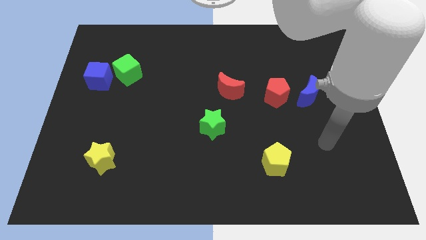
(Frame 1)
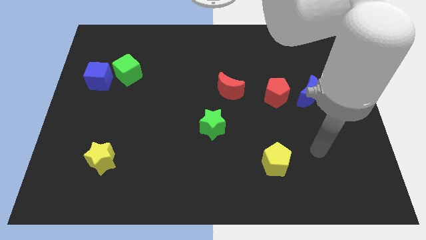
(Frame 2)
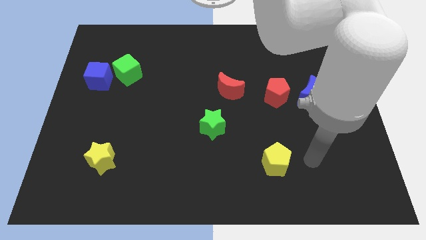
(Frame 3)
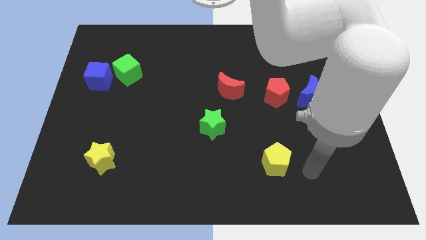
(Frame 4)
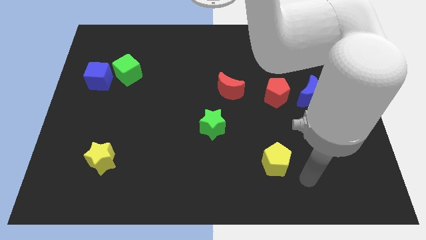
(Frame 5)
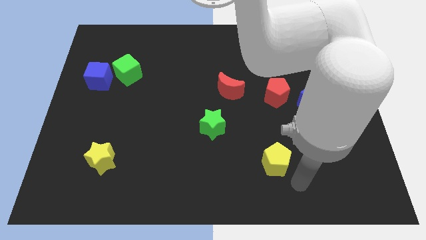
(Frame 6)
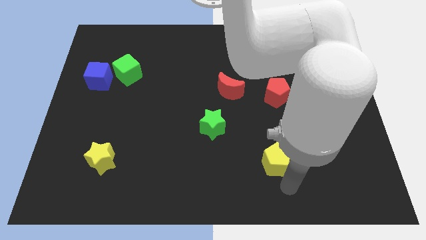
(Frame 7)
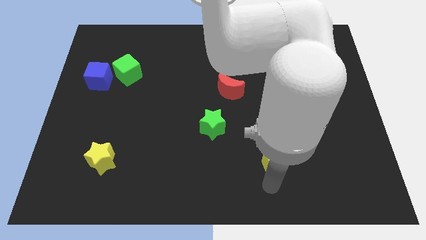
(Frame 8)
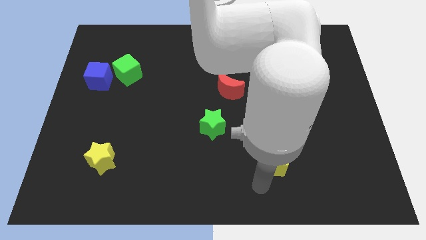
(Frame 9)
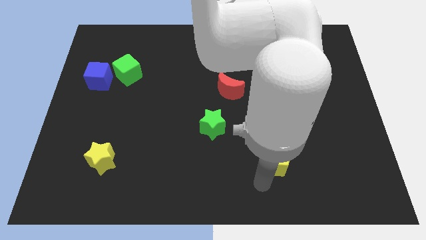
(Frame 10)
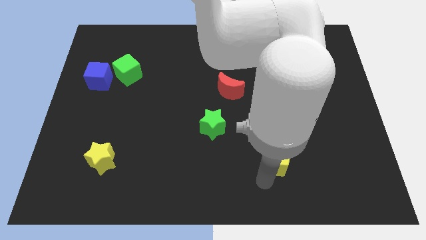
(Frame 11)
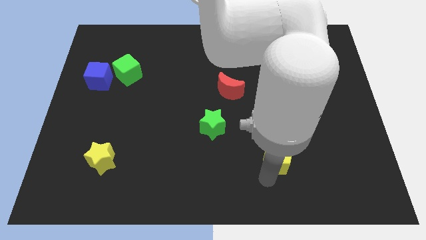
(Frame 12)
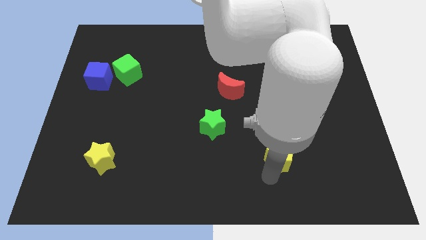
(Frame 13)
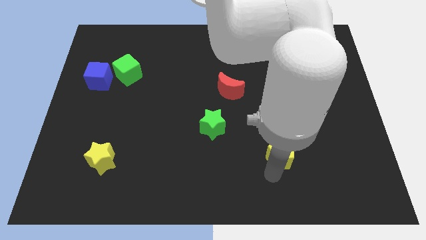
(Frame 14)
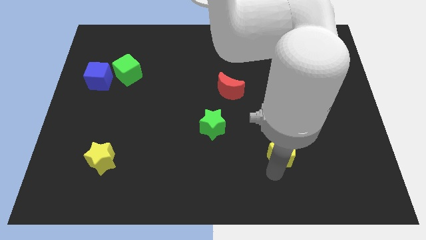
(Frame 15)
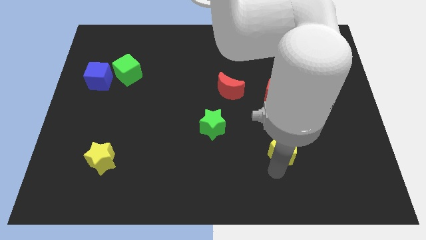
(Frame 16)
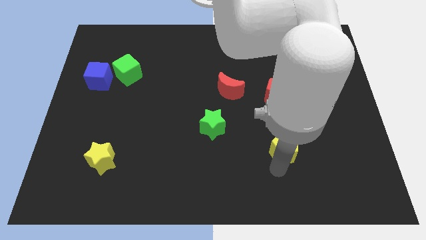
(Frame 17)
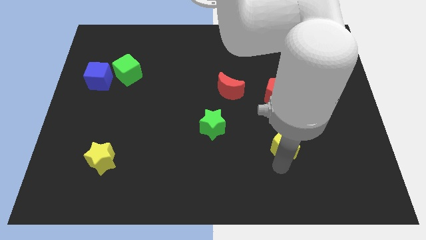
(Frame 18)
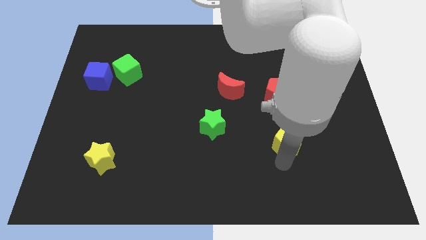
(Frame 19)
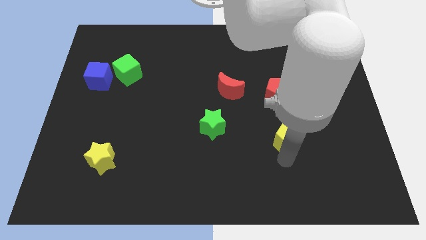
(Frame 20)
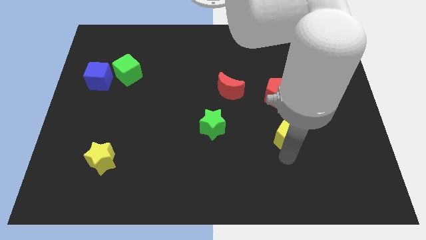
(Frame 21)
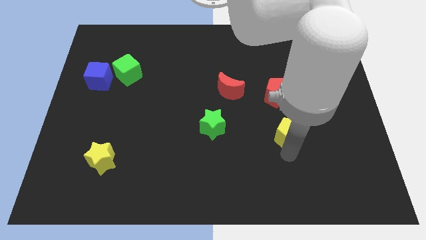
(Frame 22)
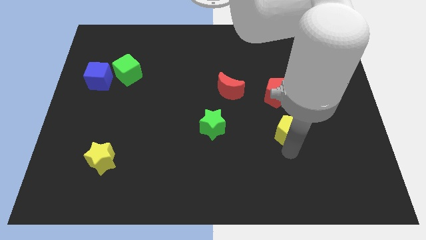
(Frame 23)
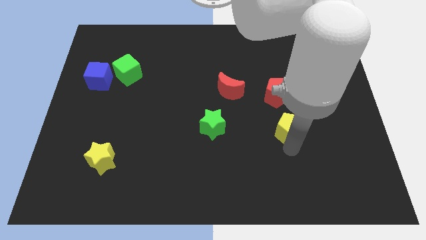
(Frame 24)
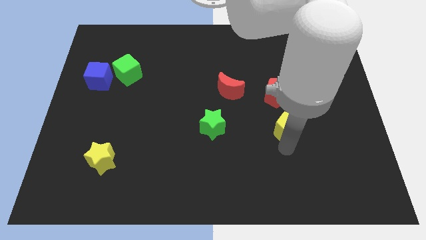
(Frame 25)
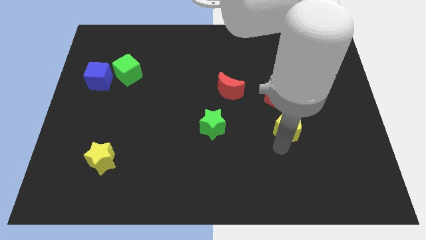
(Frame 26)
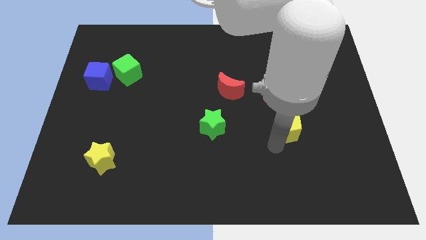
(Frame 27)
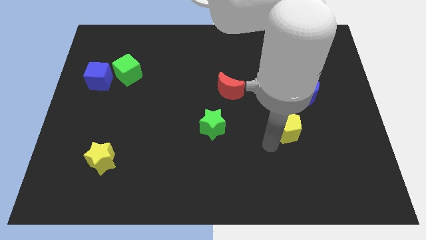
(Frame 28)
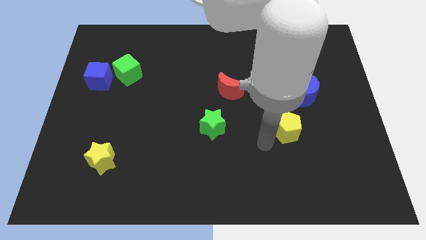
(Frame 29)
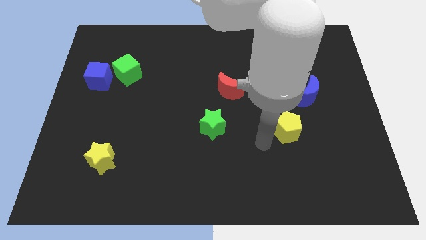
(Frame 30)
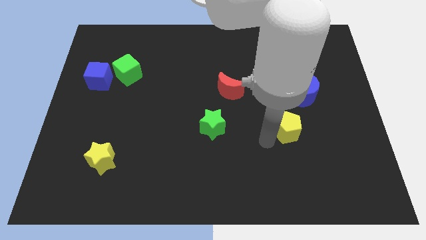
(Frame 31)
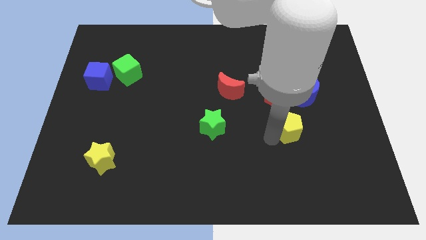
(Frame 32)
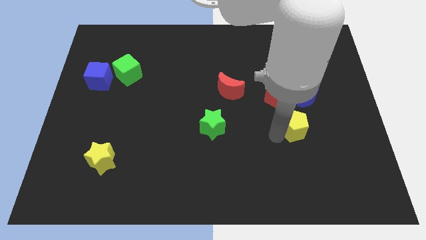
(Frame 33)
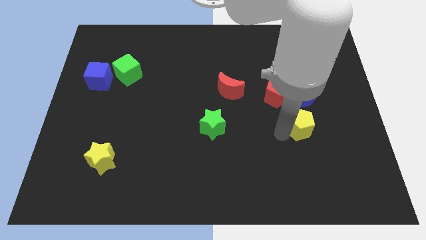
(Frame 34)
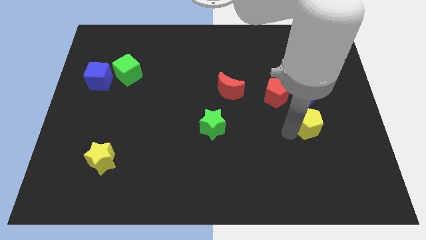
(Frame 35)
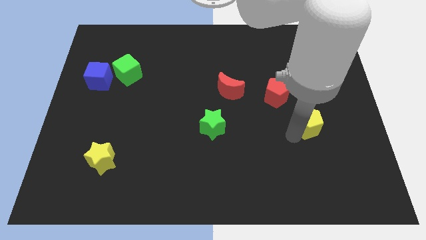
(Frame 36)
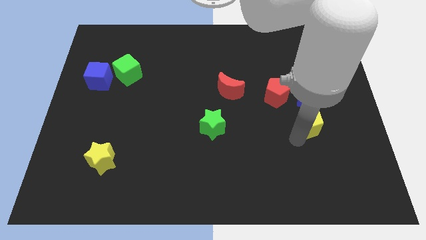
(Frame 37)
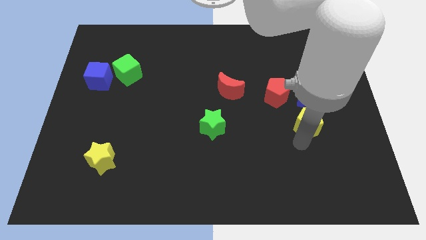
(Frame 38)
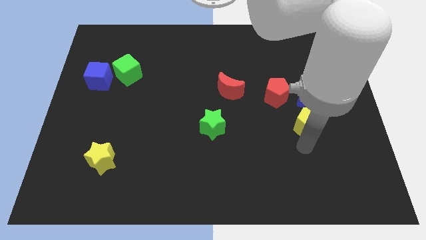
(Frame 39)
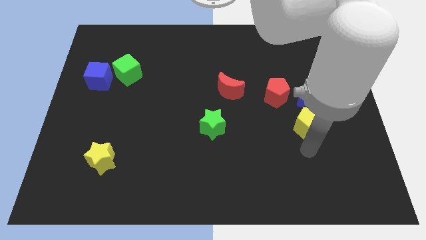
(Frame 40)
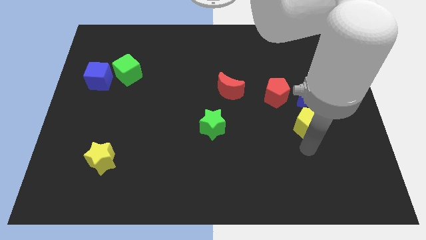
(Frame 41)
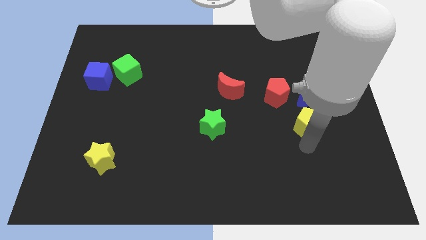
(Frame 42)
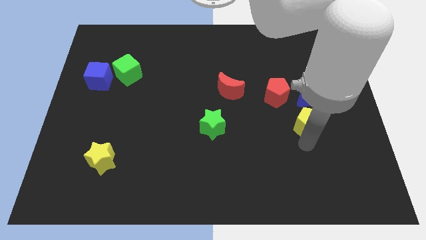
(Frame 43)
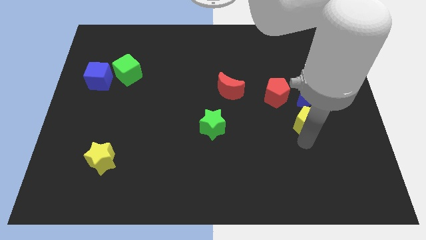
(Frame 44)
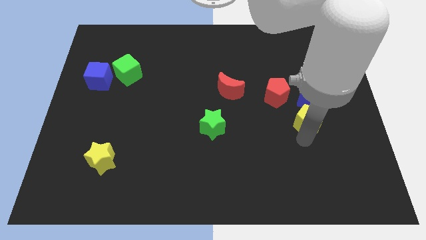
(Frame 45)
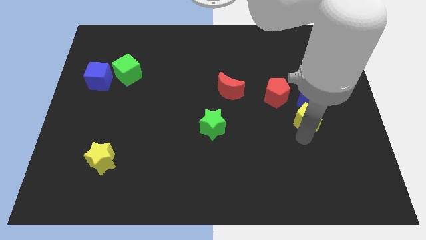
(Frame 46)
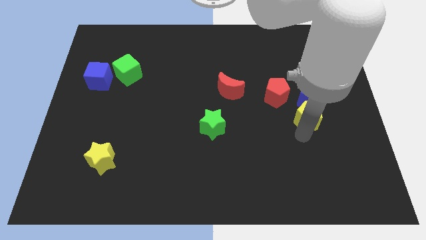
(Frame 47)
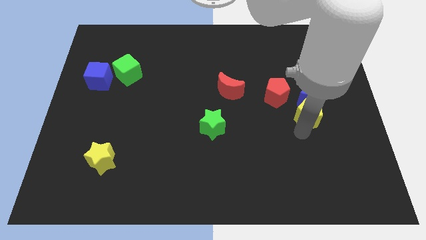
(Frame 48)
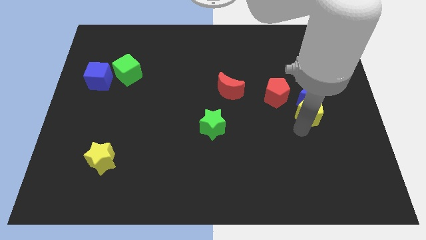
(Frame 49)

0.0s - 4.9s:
put the yellow pentagon to the blue moon

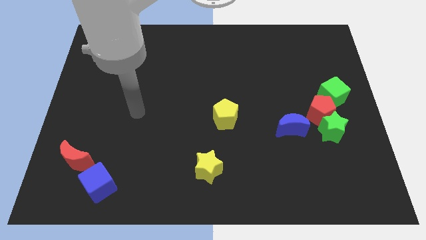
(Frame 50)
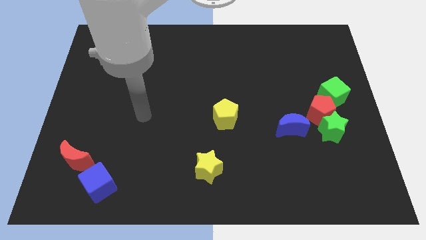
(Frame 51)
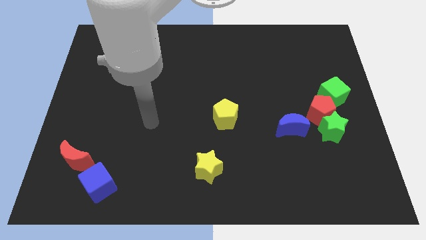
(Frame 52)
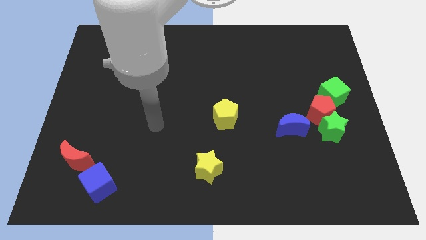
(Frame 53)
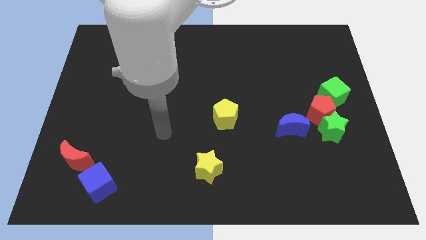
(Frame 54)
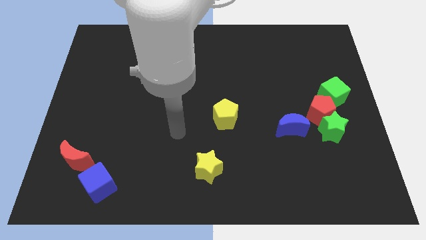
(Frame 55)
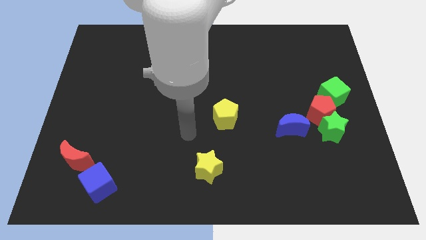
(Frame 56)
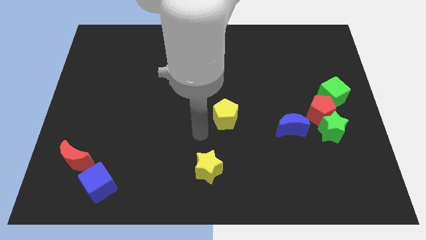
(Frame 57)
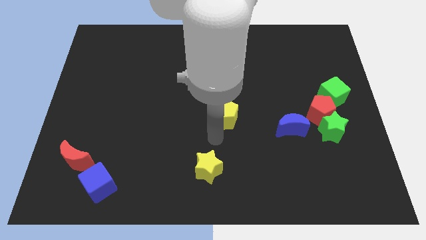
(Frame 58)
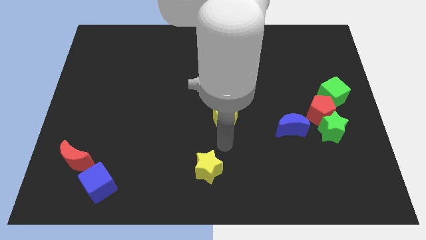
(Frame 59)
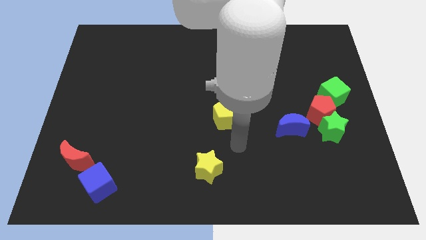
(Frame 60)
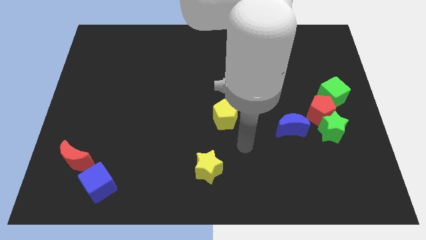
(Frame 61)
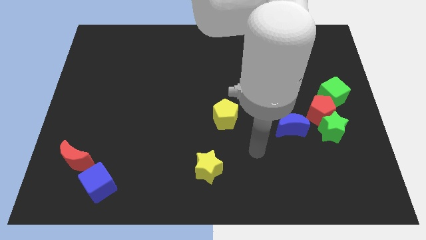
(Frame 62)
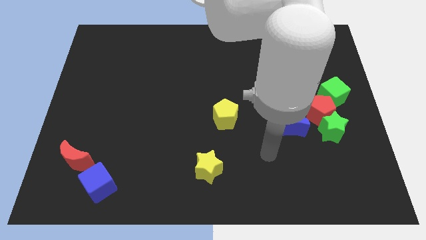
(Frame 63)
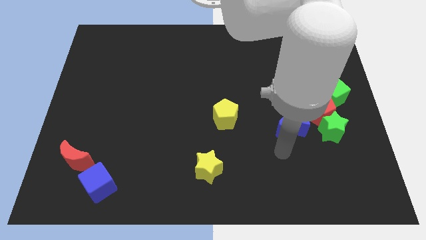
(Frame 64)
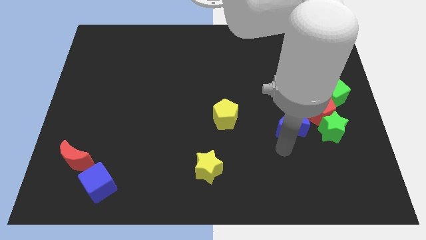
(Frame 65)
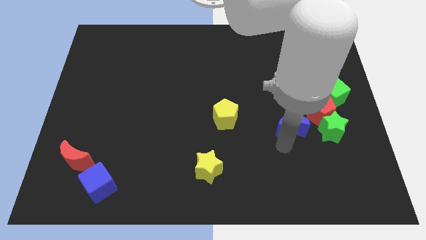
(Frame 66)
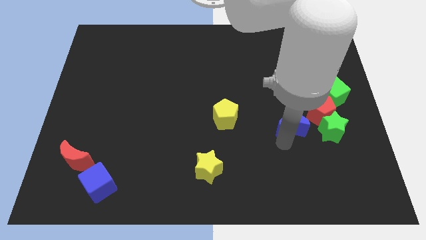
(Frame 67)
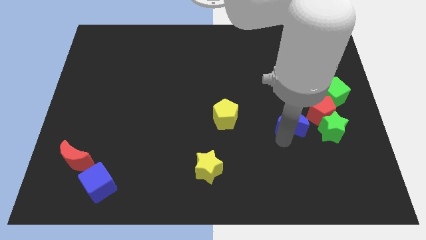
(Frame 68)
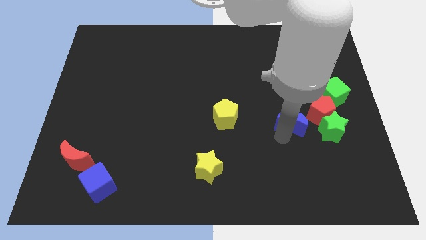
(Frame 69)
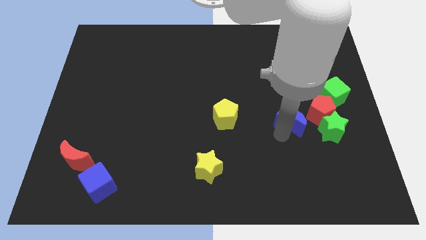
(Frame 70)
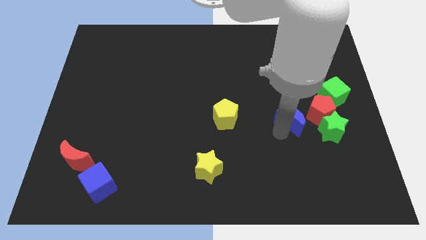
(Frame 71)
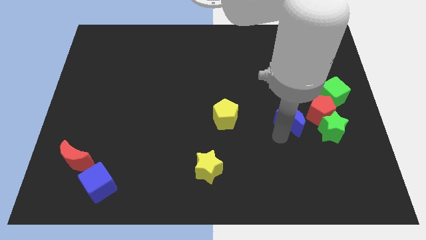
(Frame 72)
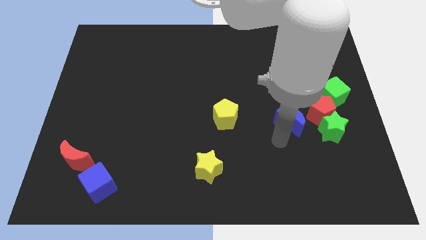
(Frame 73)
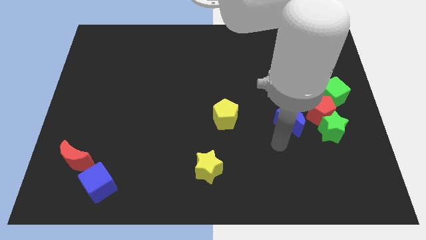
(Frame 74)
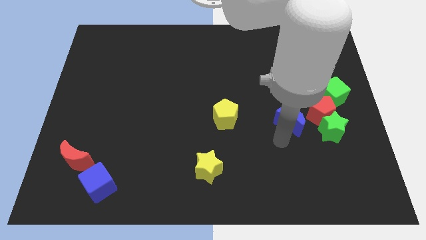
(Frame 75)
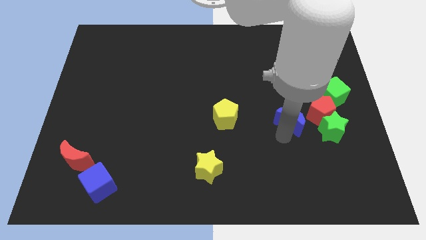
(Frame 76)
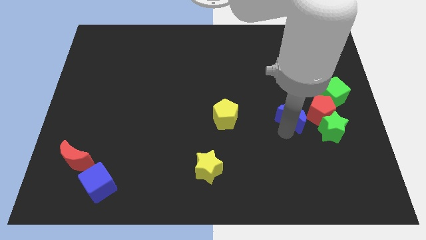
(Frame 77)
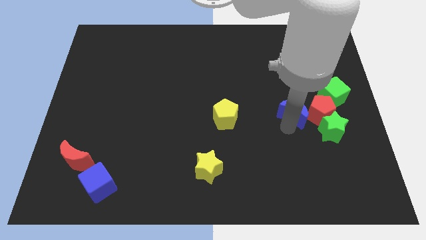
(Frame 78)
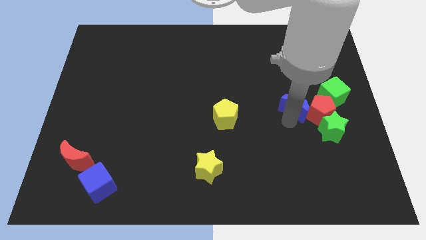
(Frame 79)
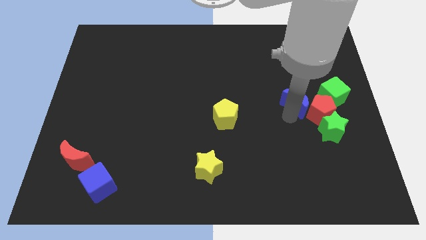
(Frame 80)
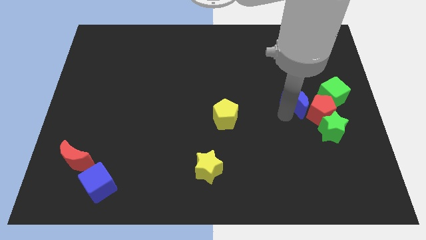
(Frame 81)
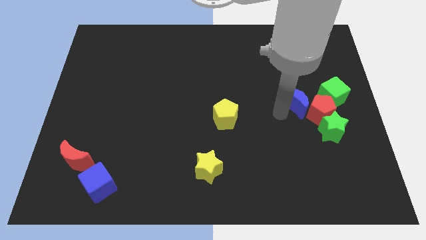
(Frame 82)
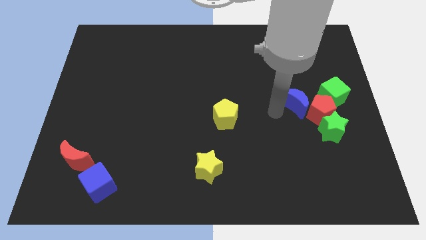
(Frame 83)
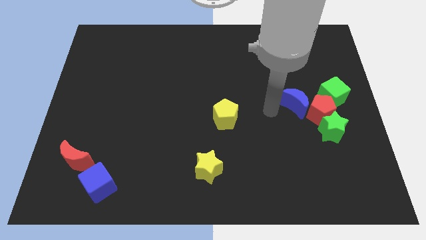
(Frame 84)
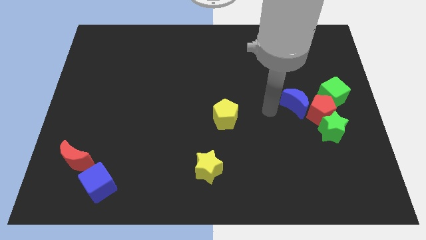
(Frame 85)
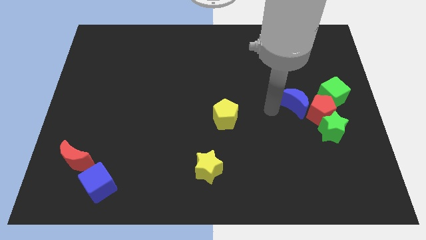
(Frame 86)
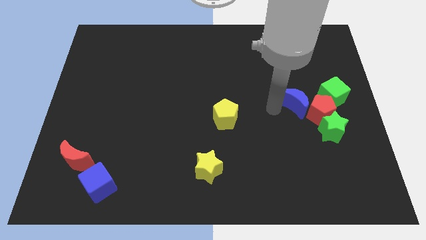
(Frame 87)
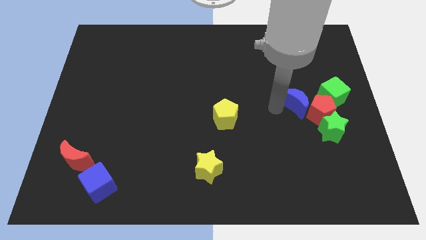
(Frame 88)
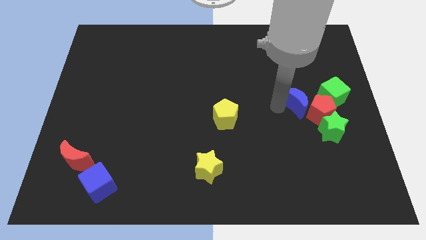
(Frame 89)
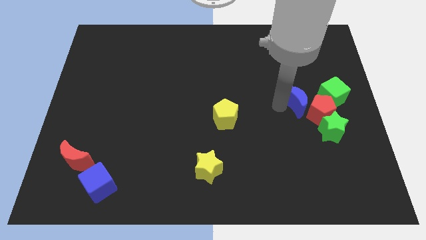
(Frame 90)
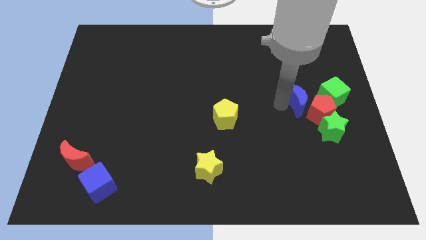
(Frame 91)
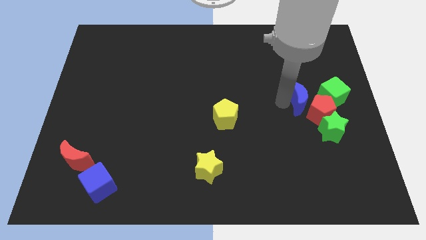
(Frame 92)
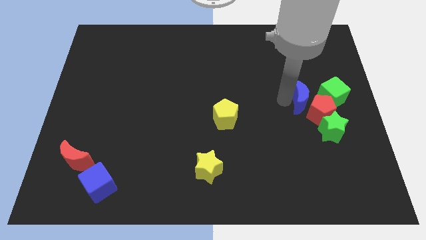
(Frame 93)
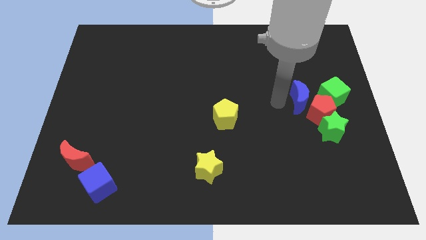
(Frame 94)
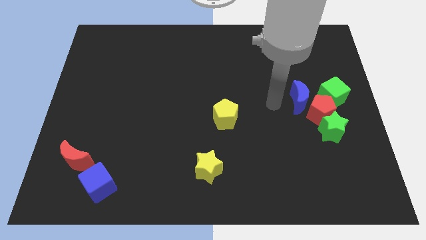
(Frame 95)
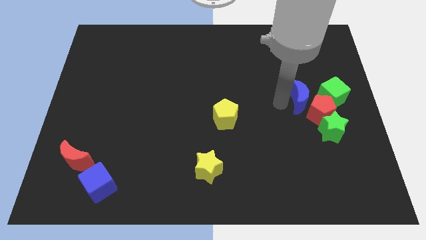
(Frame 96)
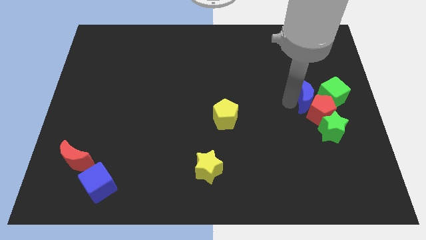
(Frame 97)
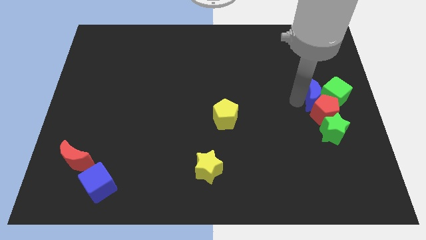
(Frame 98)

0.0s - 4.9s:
push the blue moon close to the green cube
